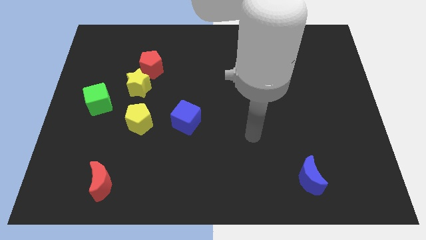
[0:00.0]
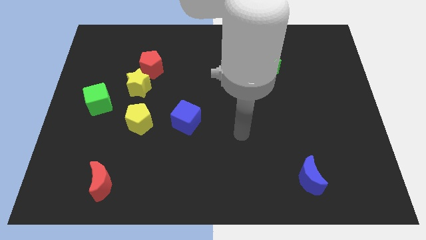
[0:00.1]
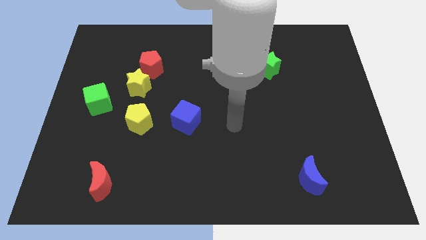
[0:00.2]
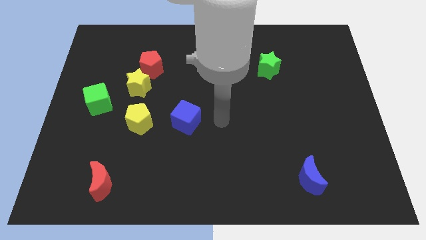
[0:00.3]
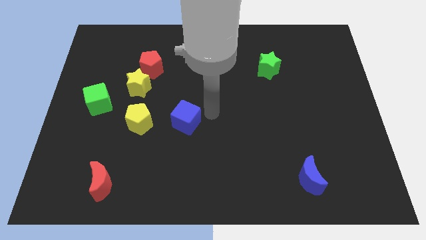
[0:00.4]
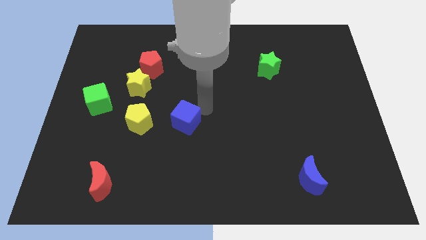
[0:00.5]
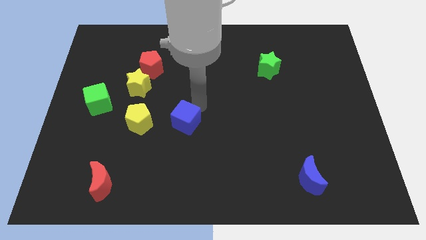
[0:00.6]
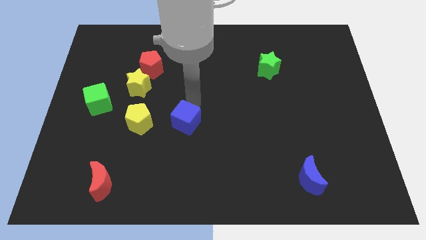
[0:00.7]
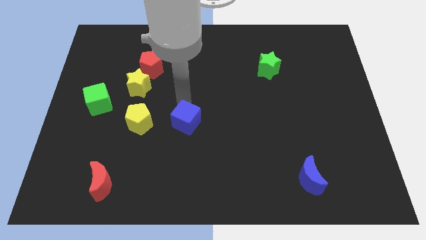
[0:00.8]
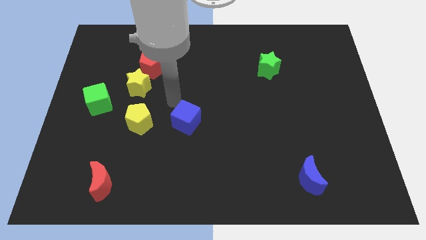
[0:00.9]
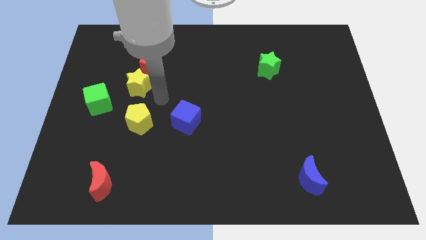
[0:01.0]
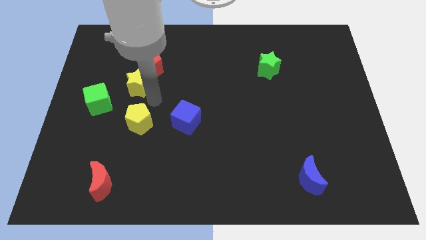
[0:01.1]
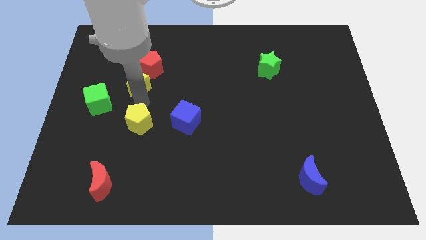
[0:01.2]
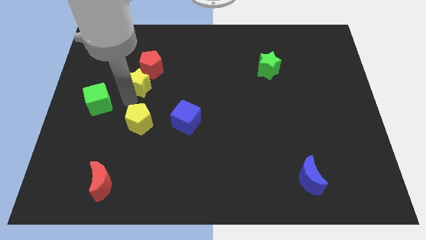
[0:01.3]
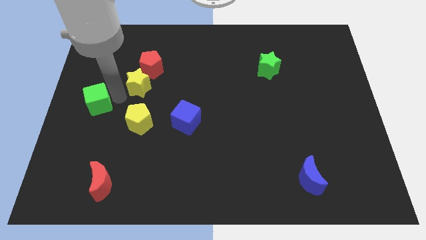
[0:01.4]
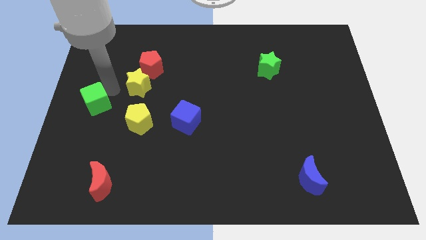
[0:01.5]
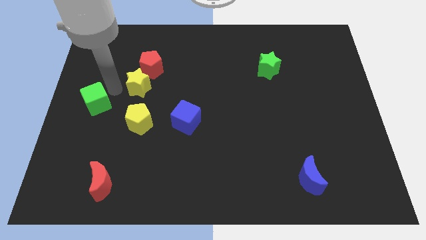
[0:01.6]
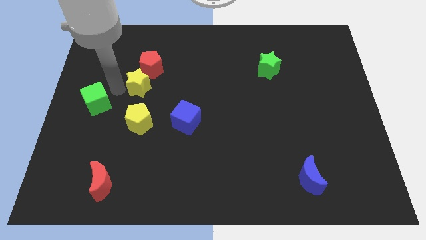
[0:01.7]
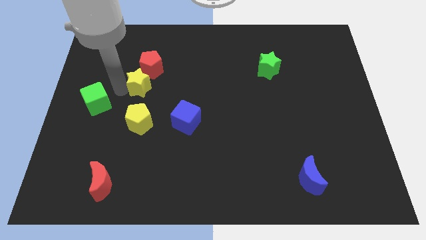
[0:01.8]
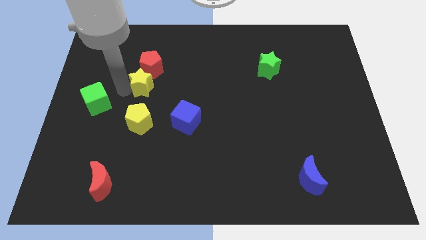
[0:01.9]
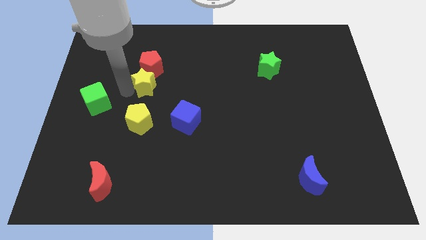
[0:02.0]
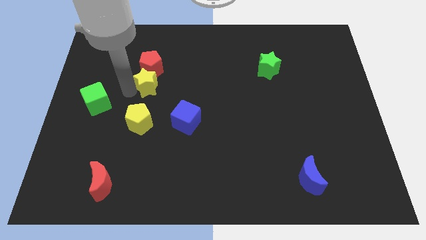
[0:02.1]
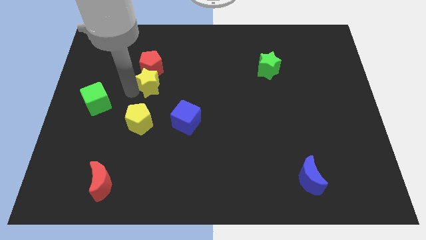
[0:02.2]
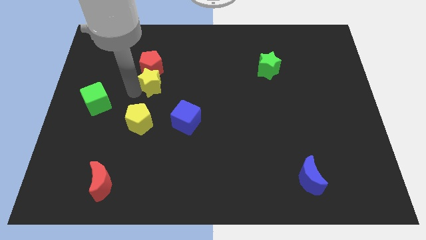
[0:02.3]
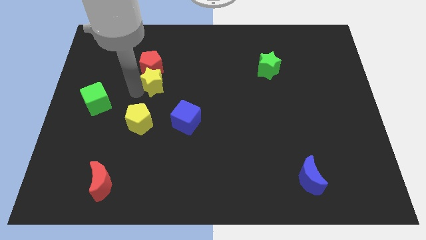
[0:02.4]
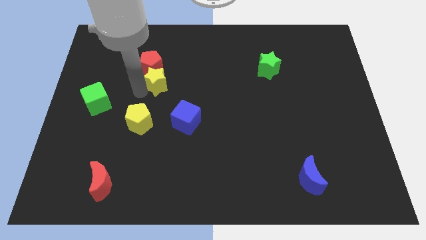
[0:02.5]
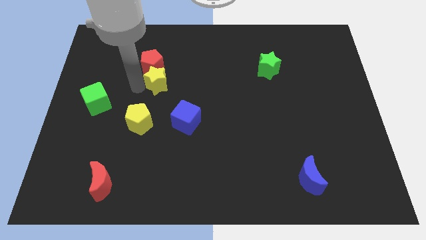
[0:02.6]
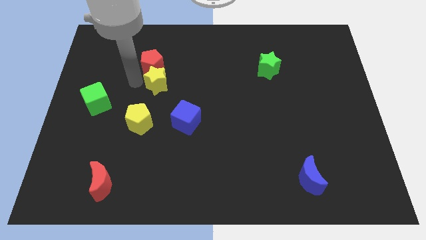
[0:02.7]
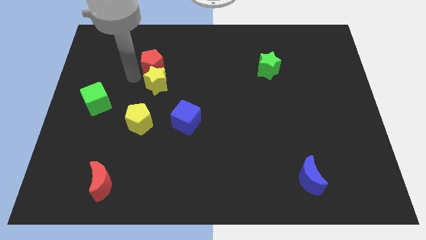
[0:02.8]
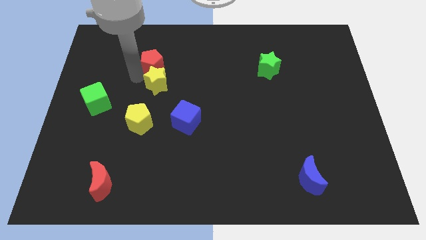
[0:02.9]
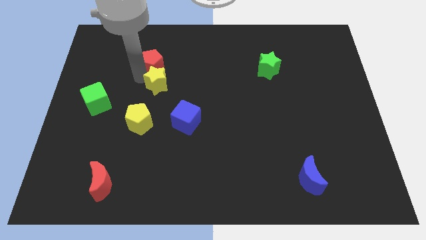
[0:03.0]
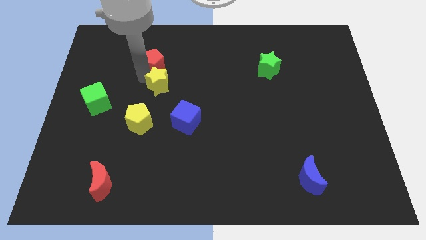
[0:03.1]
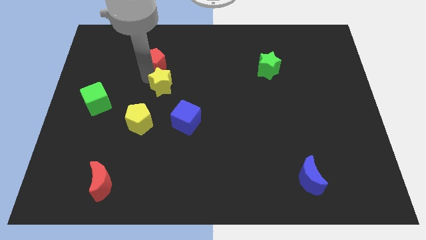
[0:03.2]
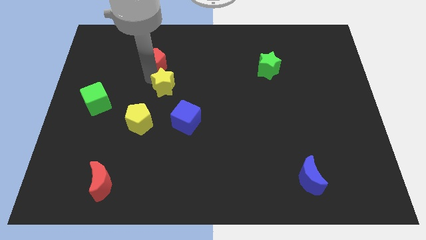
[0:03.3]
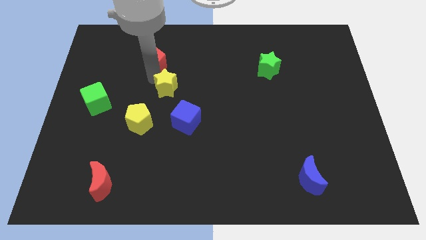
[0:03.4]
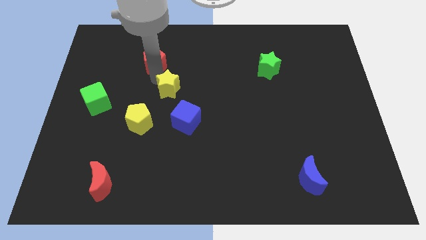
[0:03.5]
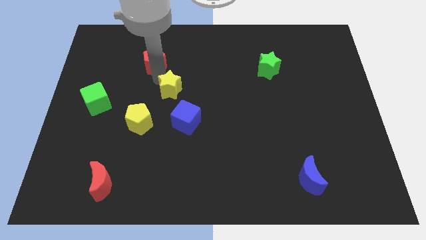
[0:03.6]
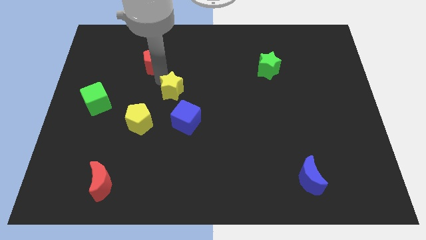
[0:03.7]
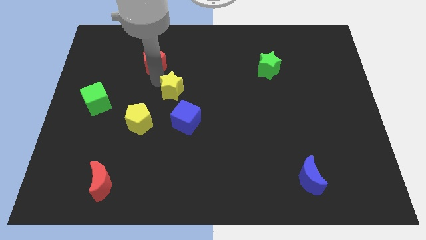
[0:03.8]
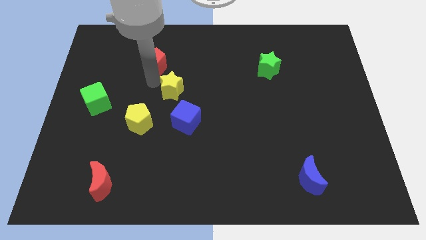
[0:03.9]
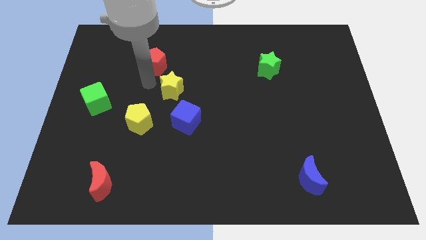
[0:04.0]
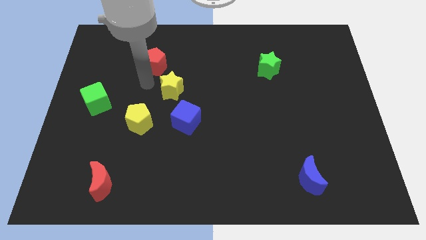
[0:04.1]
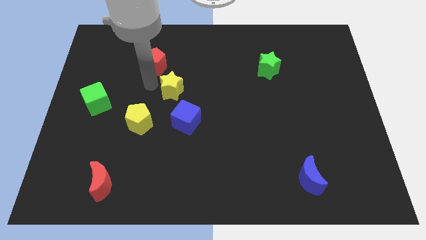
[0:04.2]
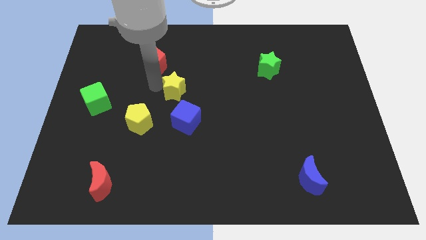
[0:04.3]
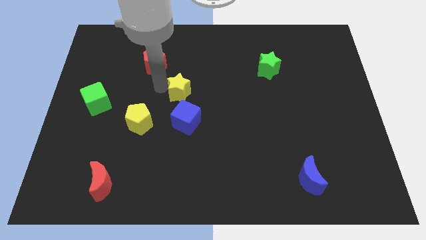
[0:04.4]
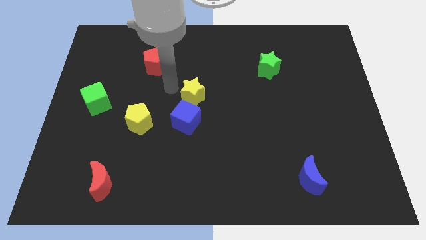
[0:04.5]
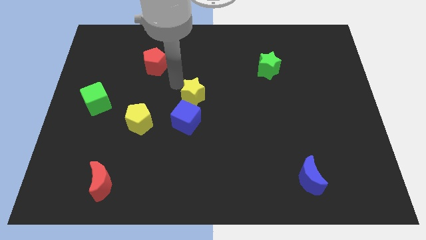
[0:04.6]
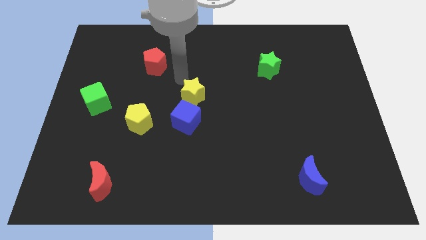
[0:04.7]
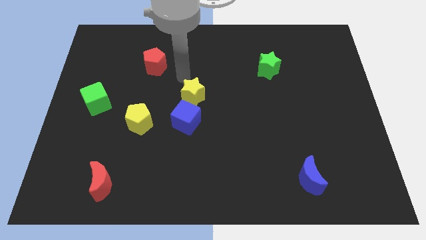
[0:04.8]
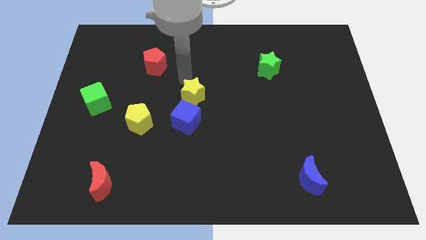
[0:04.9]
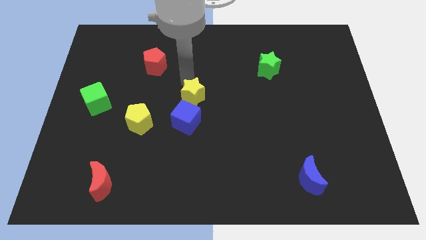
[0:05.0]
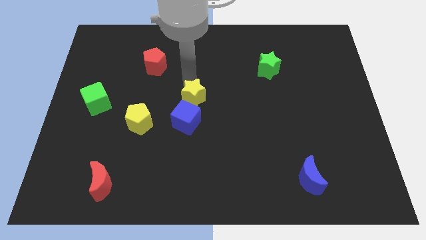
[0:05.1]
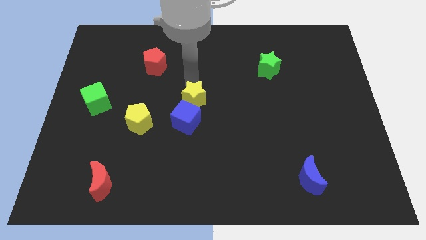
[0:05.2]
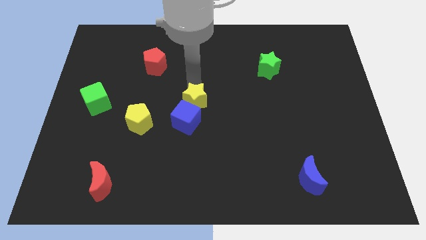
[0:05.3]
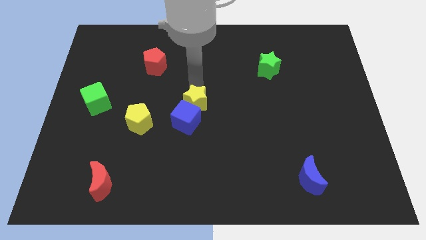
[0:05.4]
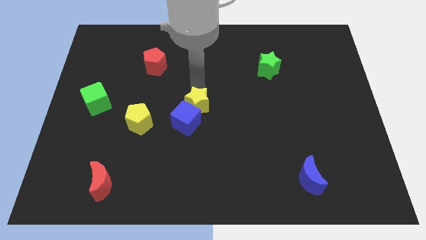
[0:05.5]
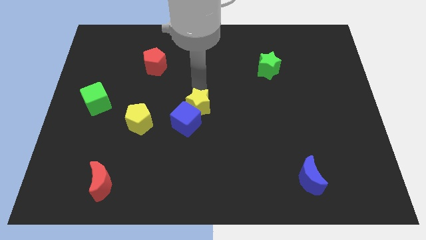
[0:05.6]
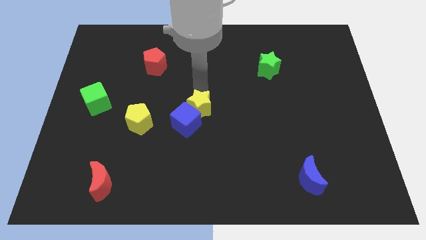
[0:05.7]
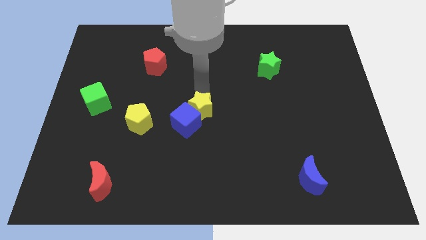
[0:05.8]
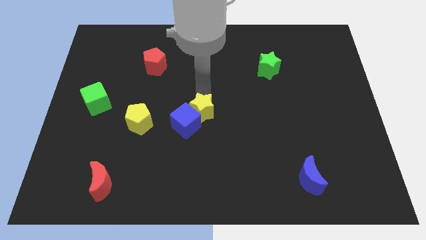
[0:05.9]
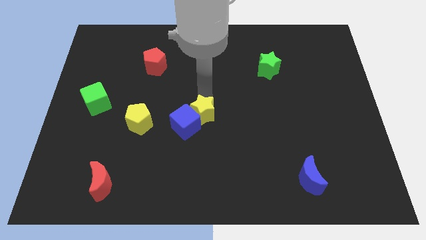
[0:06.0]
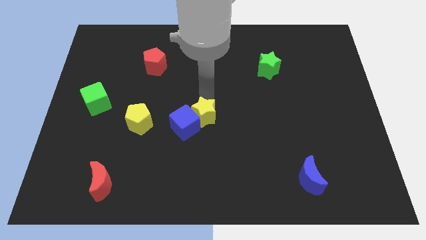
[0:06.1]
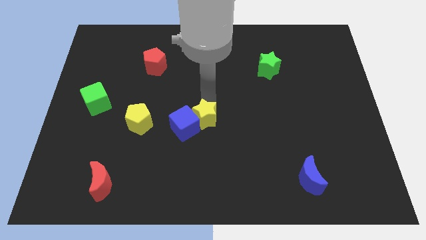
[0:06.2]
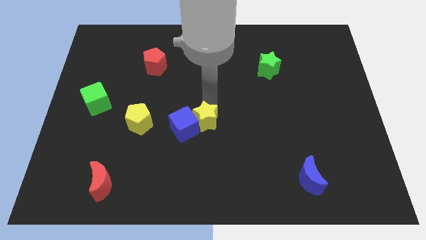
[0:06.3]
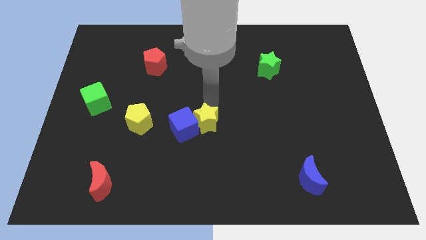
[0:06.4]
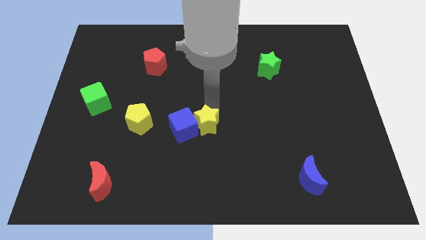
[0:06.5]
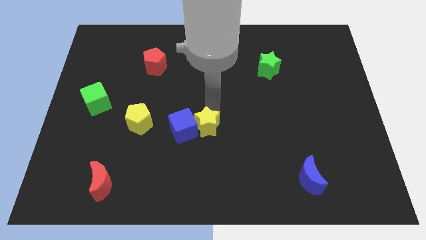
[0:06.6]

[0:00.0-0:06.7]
push the yellow star down and then right

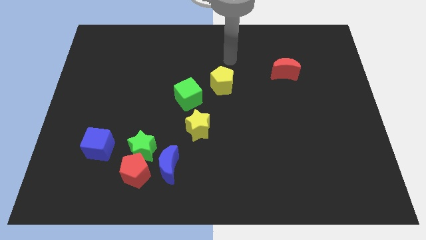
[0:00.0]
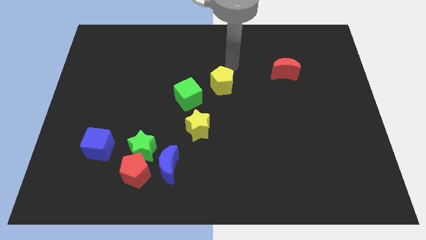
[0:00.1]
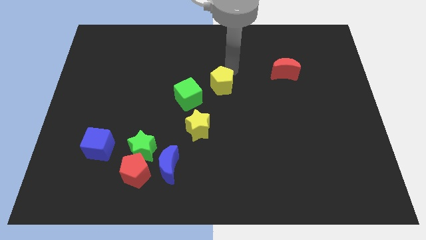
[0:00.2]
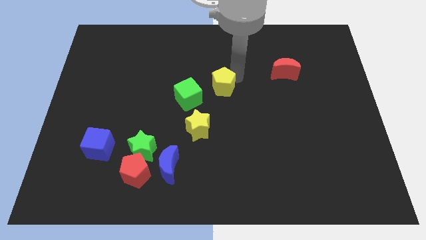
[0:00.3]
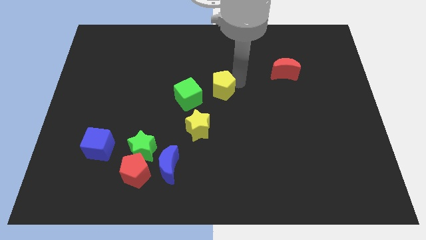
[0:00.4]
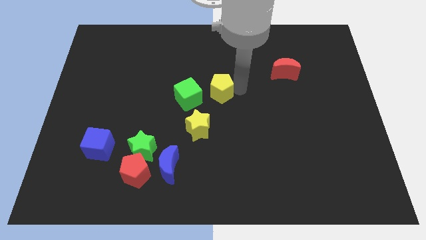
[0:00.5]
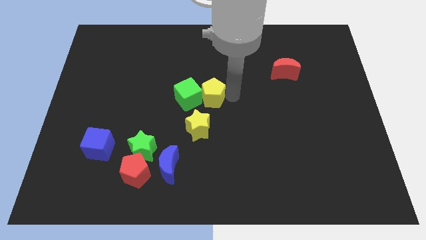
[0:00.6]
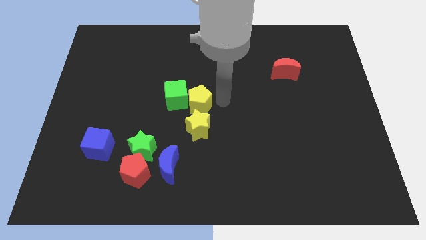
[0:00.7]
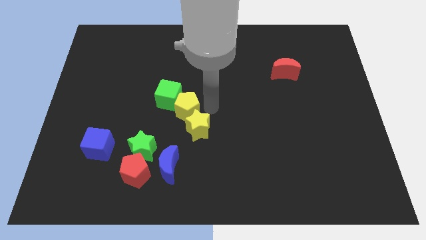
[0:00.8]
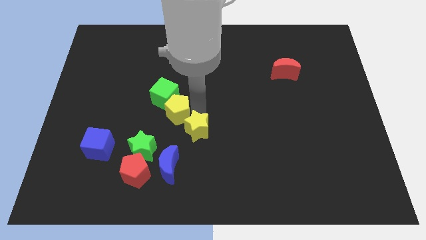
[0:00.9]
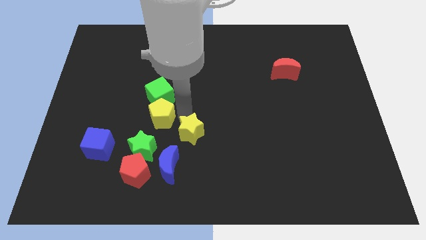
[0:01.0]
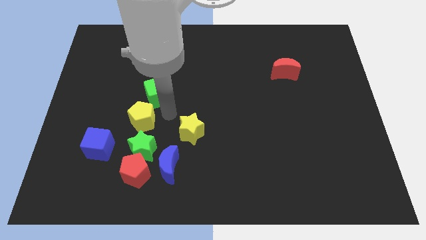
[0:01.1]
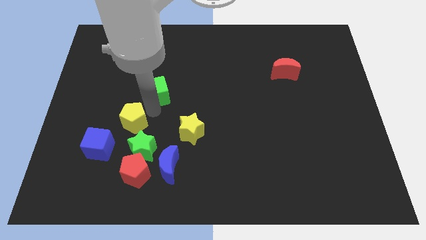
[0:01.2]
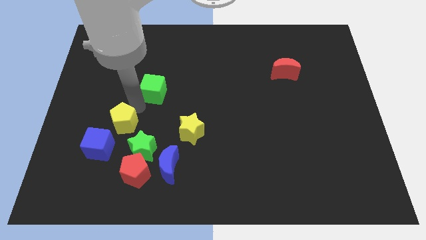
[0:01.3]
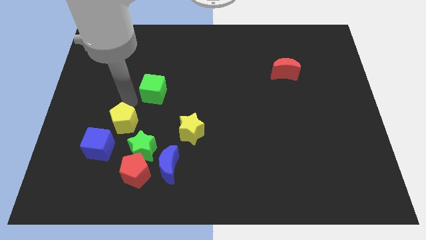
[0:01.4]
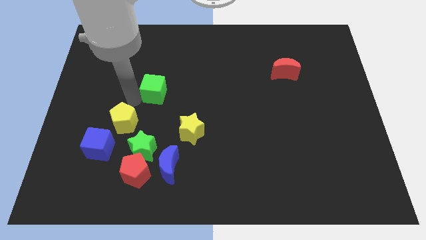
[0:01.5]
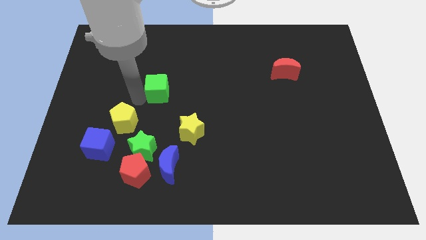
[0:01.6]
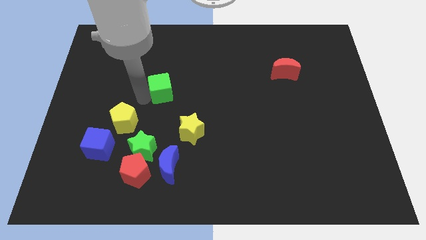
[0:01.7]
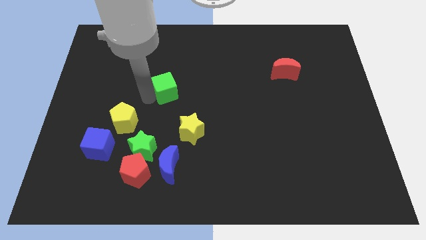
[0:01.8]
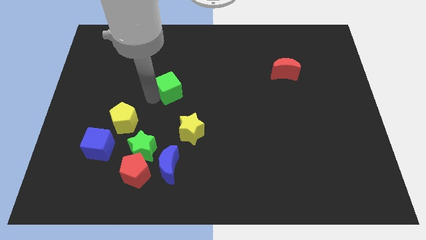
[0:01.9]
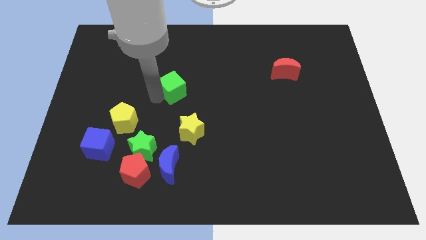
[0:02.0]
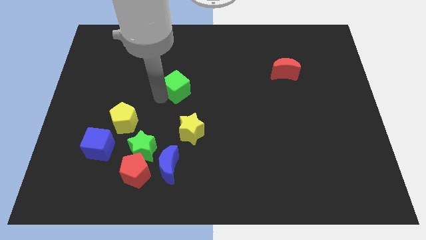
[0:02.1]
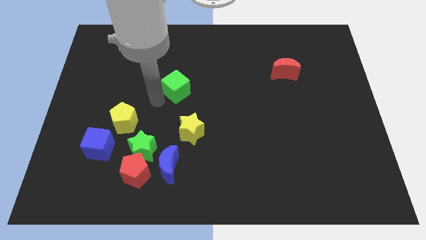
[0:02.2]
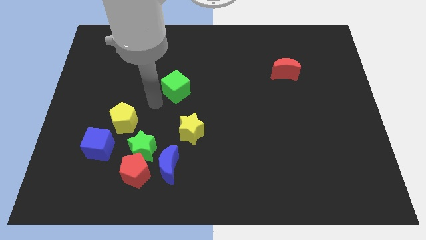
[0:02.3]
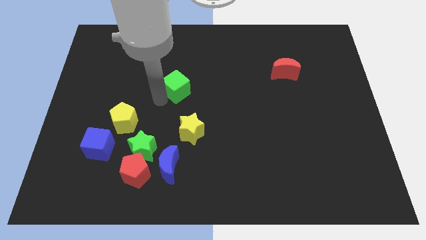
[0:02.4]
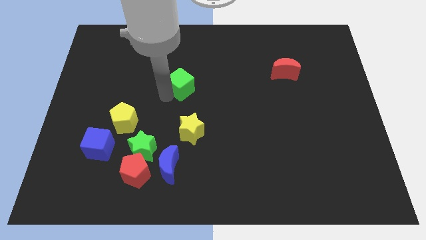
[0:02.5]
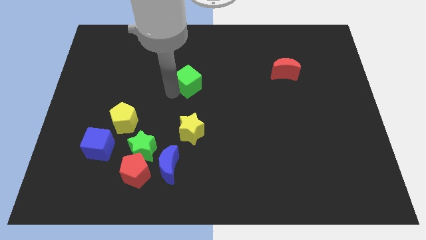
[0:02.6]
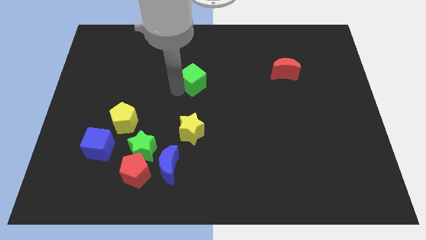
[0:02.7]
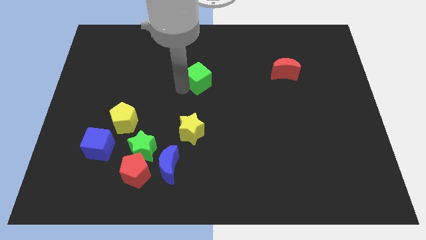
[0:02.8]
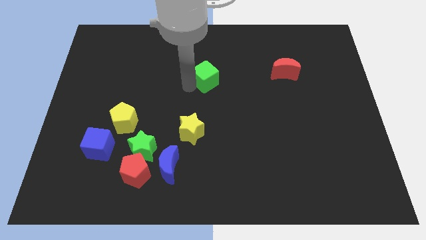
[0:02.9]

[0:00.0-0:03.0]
slightly move the green cube upwards and right
